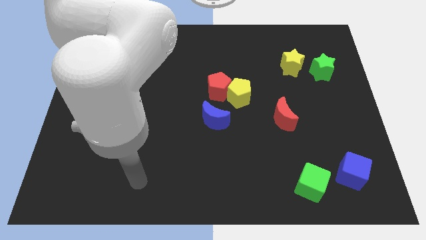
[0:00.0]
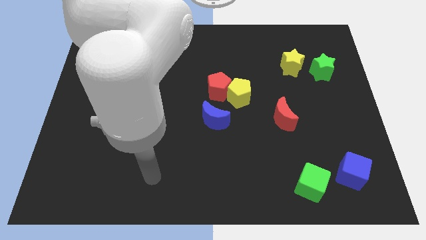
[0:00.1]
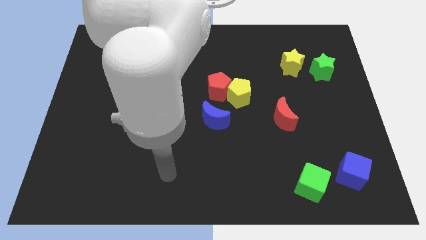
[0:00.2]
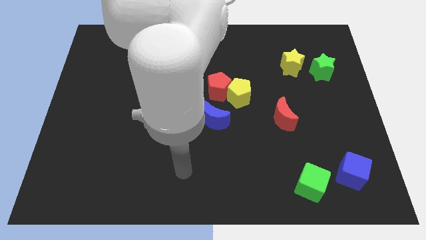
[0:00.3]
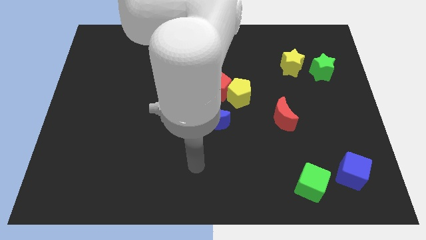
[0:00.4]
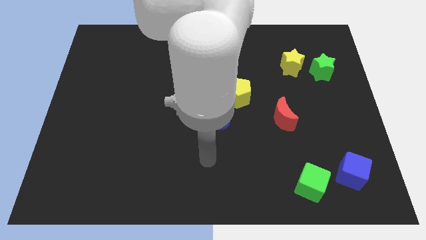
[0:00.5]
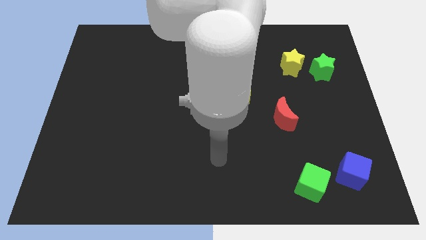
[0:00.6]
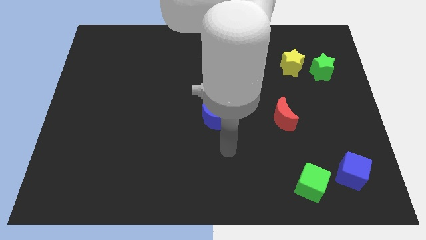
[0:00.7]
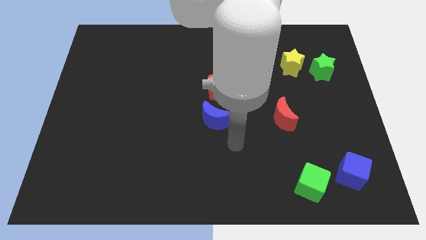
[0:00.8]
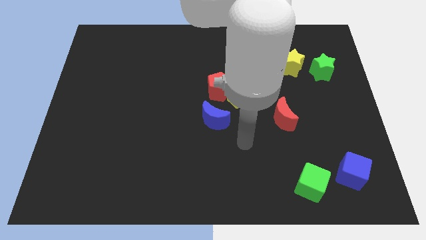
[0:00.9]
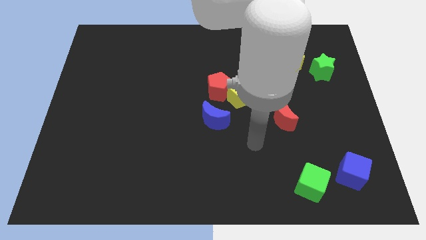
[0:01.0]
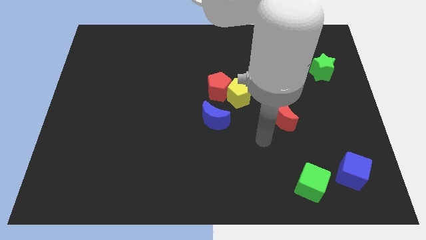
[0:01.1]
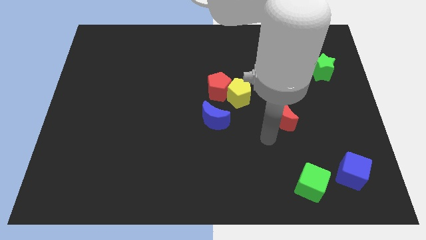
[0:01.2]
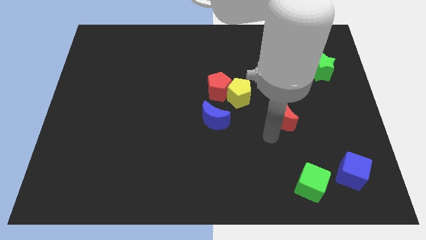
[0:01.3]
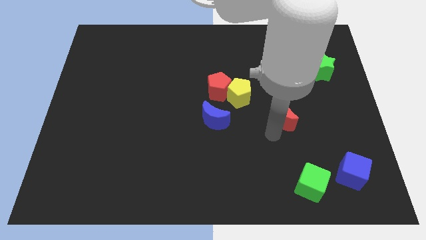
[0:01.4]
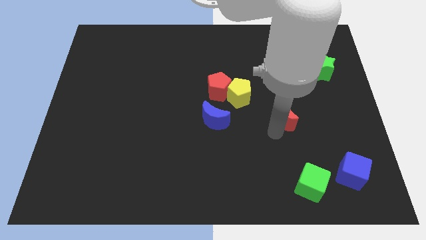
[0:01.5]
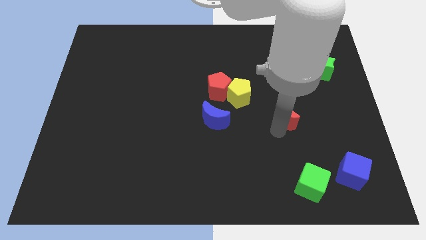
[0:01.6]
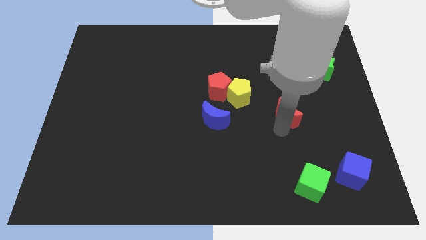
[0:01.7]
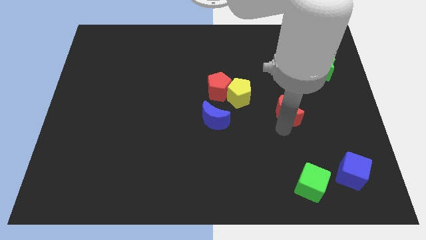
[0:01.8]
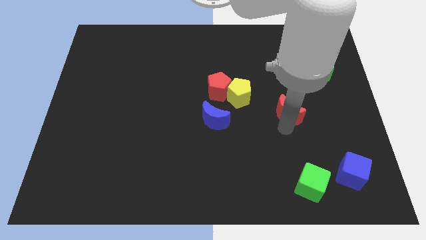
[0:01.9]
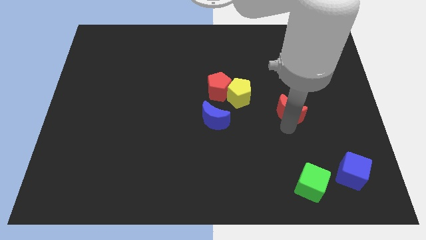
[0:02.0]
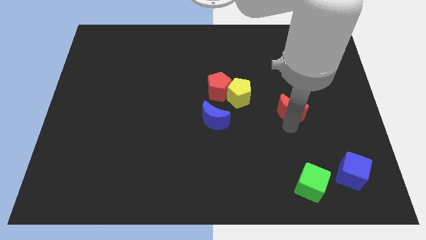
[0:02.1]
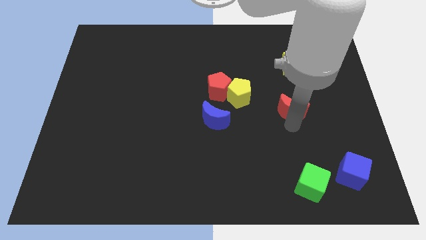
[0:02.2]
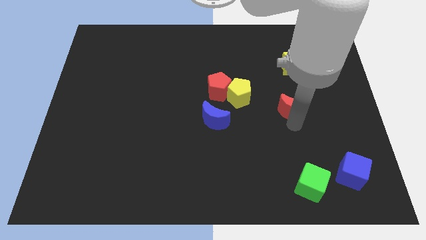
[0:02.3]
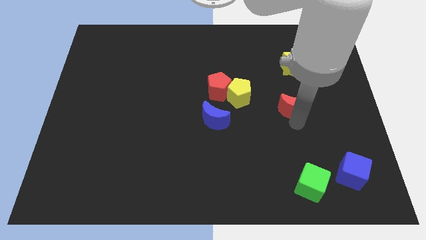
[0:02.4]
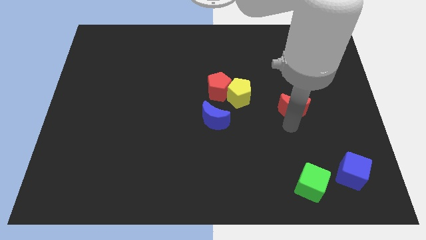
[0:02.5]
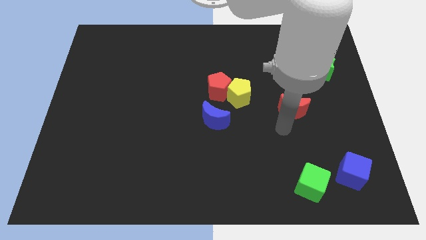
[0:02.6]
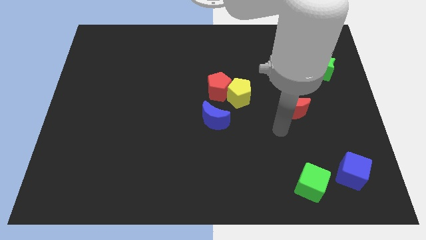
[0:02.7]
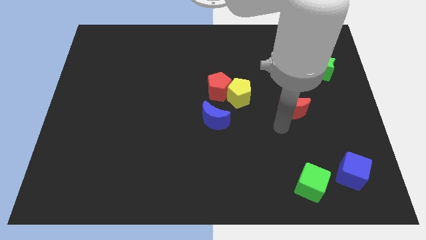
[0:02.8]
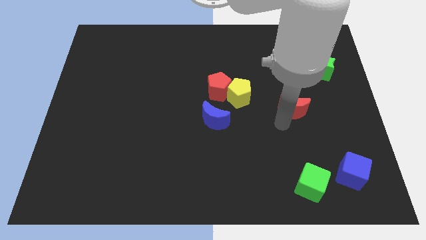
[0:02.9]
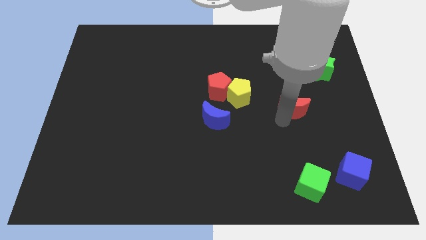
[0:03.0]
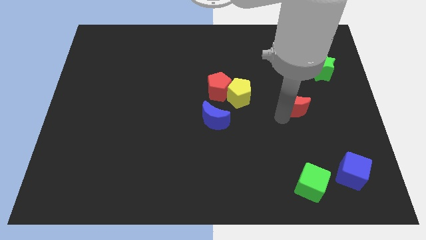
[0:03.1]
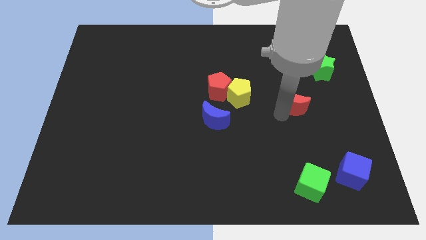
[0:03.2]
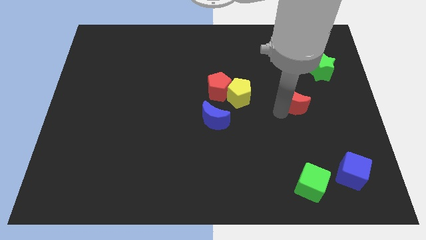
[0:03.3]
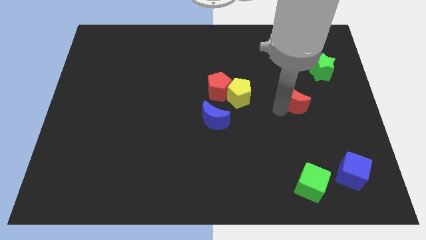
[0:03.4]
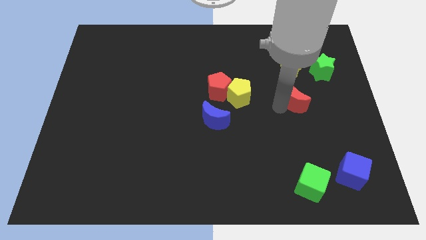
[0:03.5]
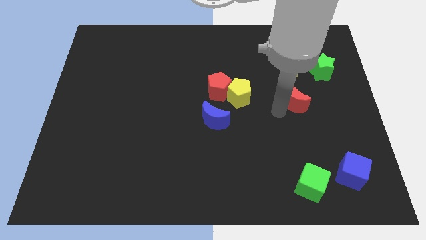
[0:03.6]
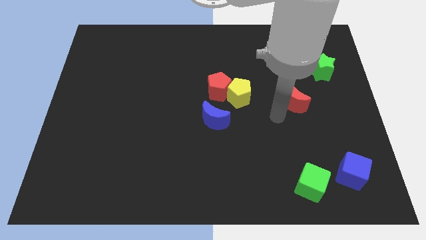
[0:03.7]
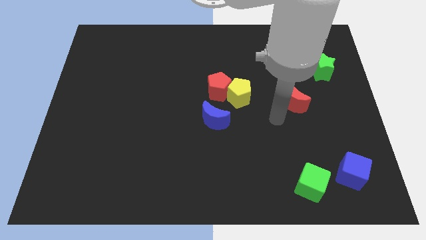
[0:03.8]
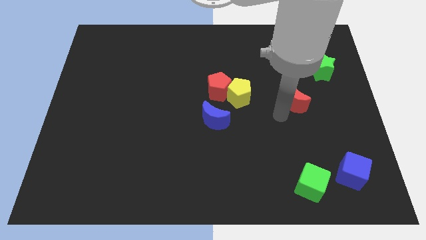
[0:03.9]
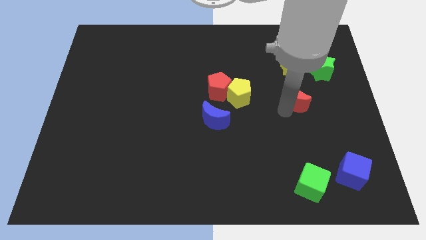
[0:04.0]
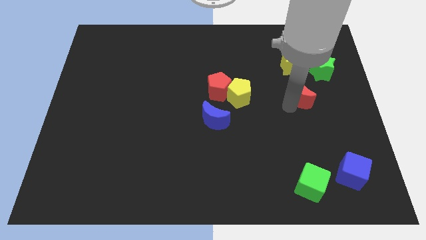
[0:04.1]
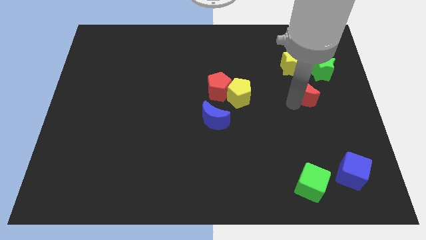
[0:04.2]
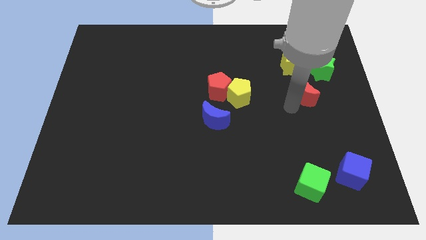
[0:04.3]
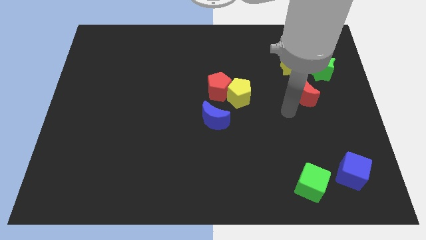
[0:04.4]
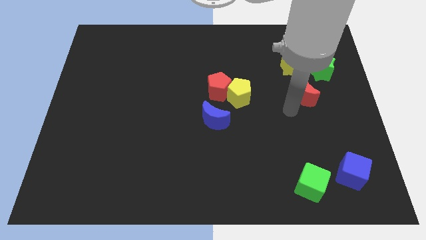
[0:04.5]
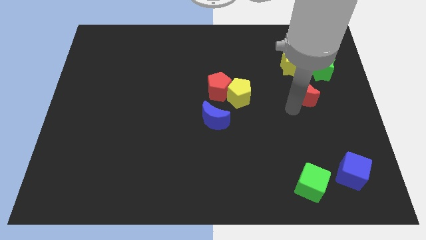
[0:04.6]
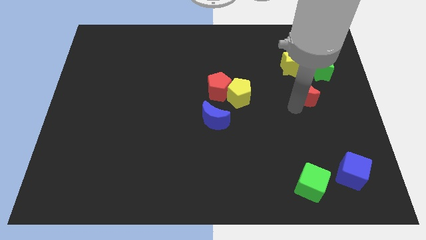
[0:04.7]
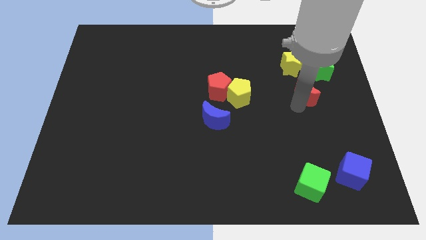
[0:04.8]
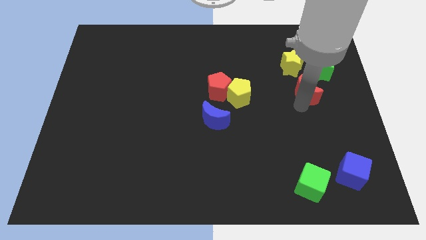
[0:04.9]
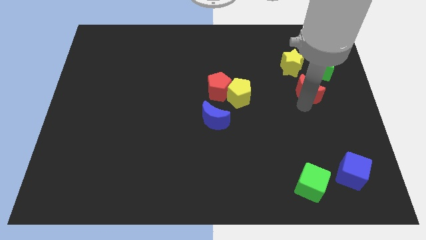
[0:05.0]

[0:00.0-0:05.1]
move the red moon diagonally down and to the right of the yellow star

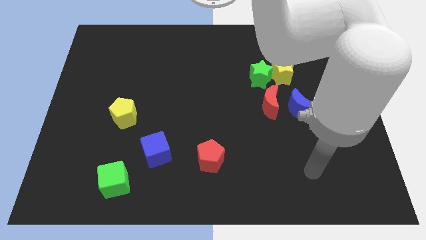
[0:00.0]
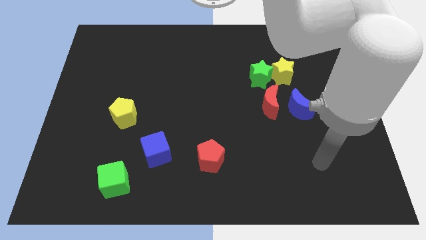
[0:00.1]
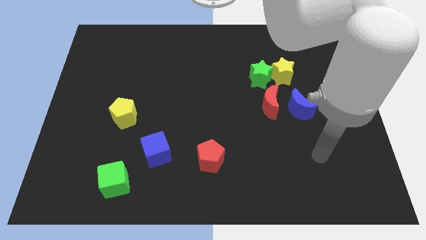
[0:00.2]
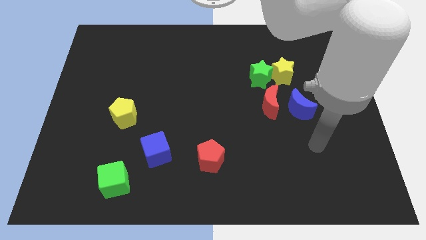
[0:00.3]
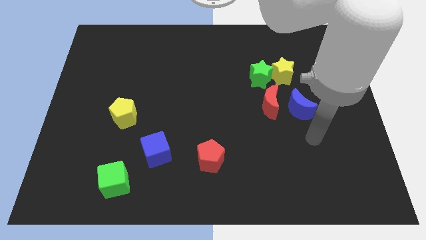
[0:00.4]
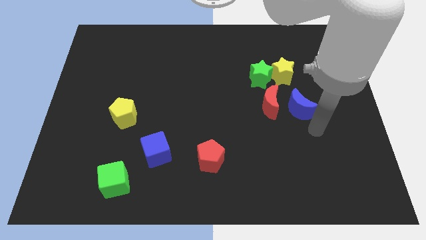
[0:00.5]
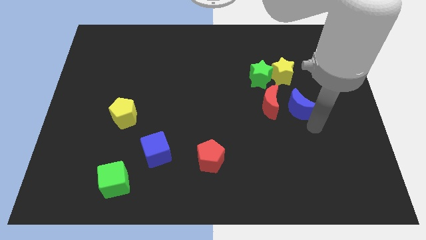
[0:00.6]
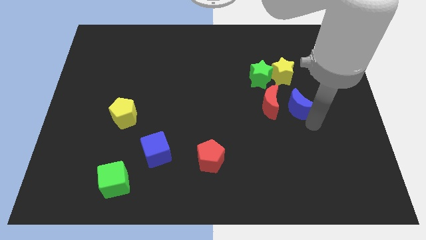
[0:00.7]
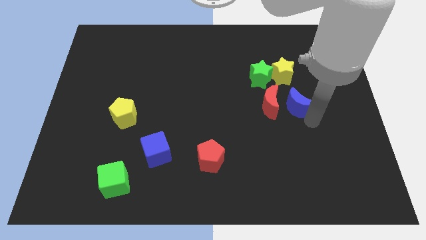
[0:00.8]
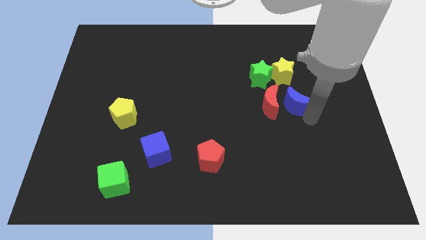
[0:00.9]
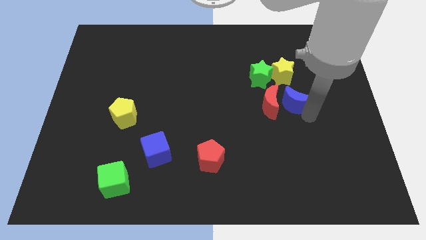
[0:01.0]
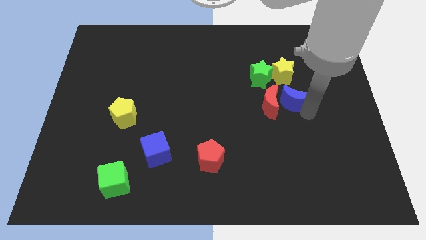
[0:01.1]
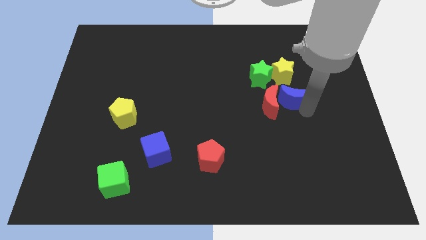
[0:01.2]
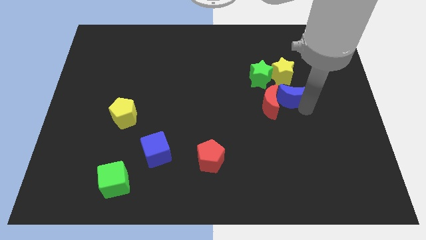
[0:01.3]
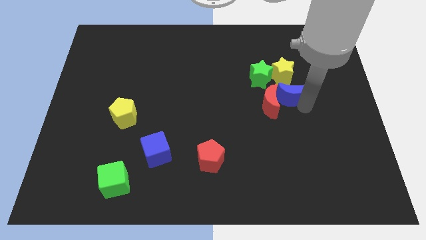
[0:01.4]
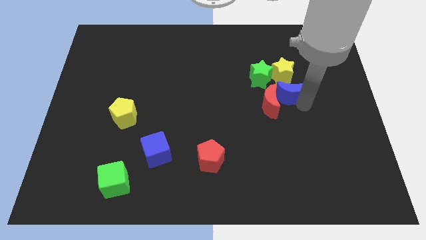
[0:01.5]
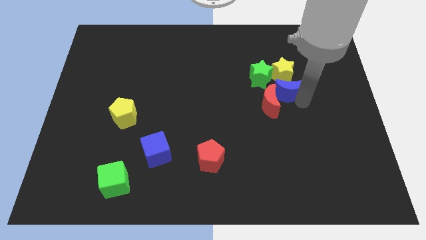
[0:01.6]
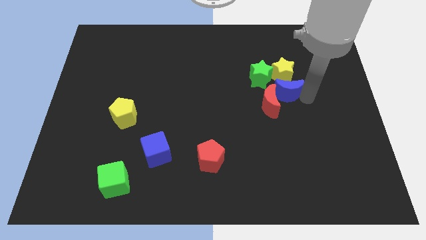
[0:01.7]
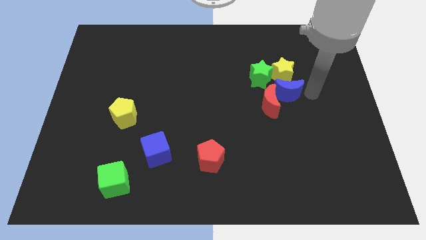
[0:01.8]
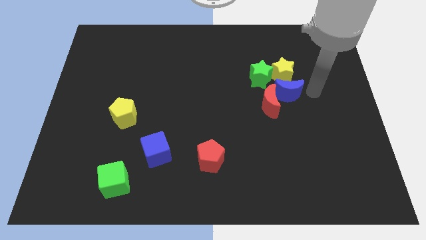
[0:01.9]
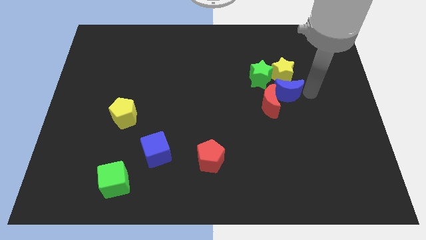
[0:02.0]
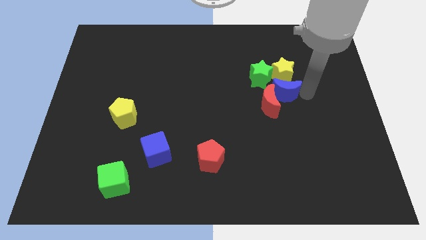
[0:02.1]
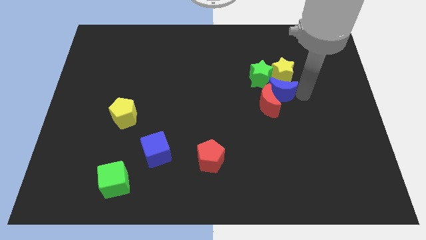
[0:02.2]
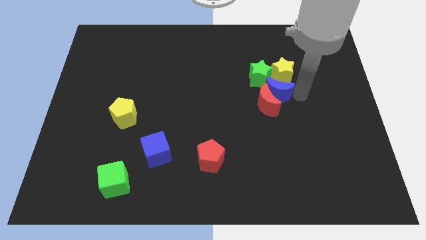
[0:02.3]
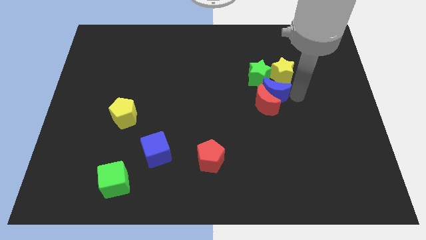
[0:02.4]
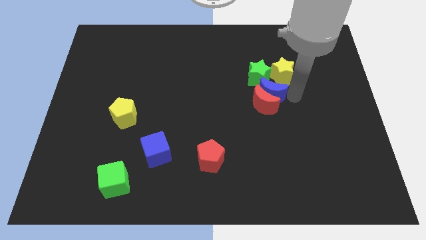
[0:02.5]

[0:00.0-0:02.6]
slide the blue moon to the top left of the red moon
